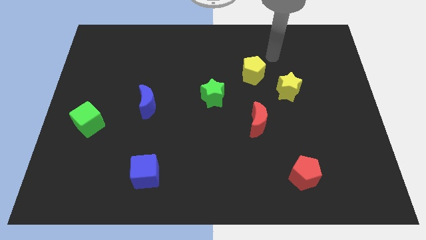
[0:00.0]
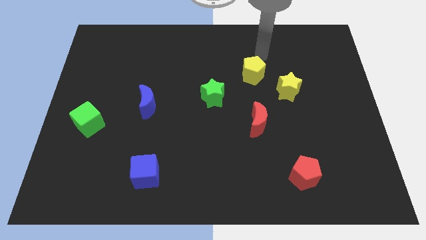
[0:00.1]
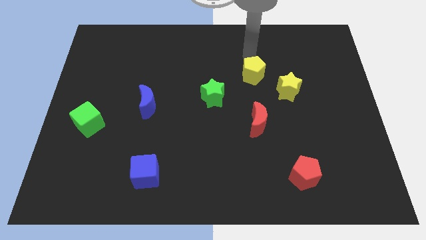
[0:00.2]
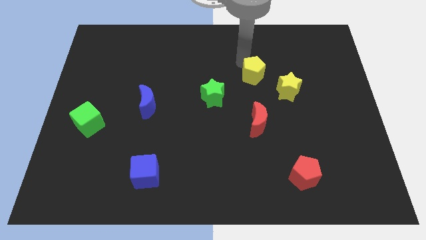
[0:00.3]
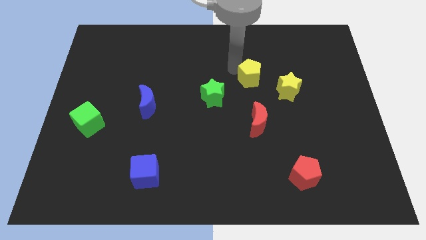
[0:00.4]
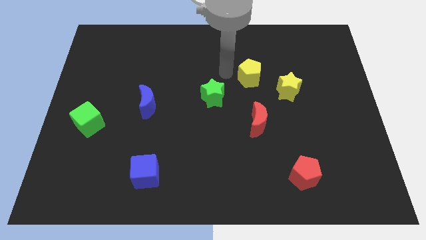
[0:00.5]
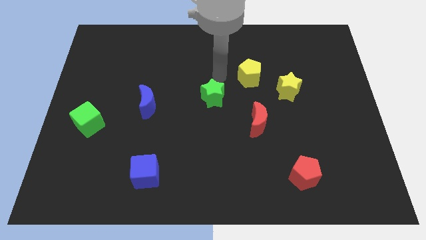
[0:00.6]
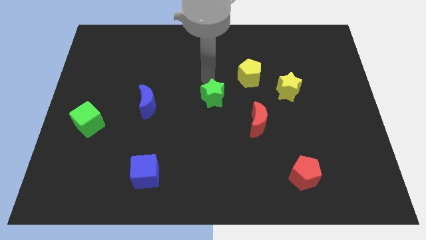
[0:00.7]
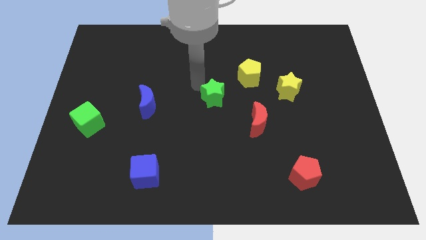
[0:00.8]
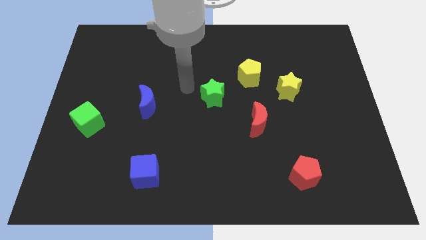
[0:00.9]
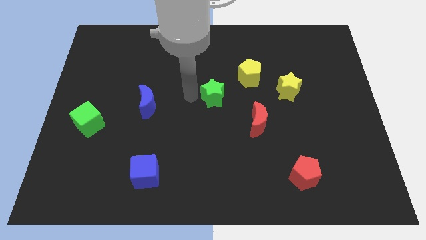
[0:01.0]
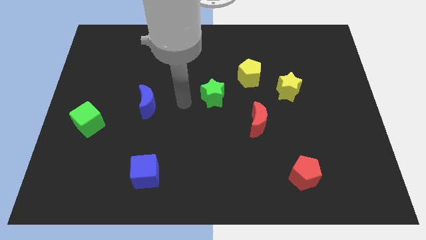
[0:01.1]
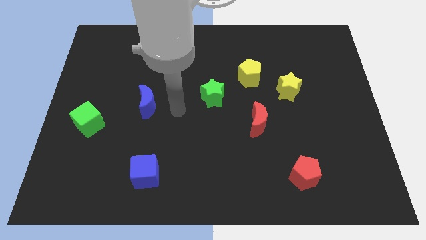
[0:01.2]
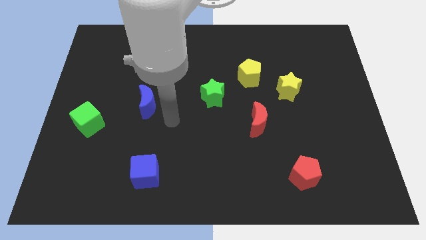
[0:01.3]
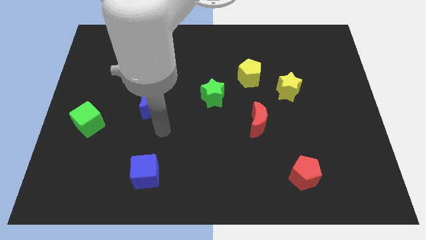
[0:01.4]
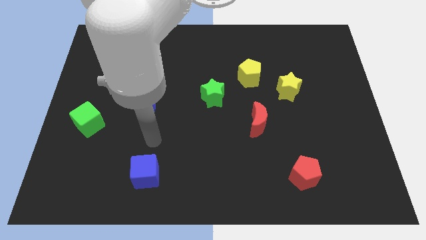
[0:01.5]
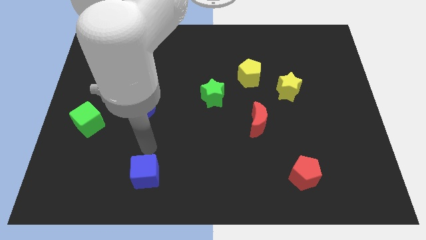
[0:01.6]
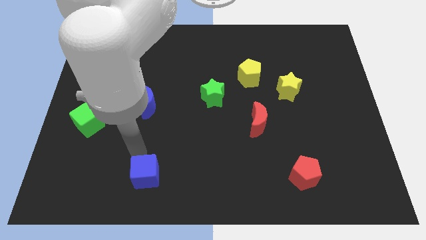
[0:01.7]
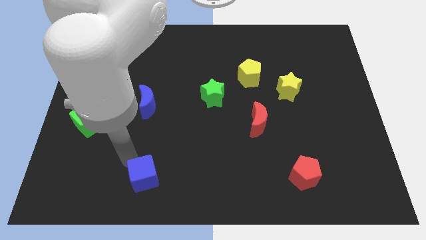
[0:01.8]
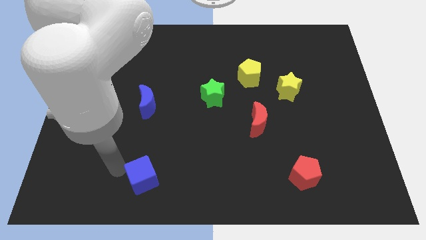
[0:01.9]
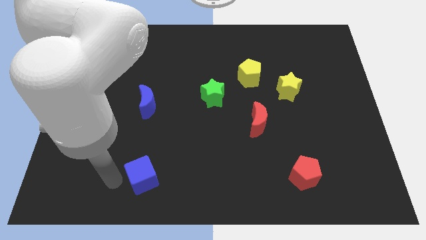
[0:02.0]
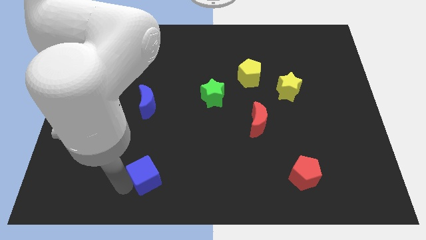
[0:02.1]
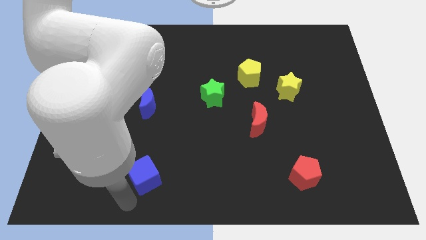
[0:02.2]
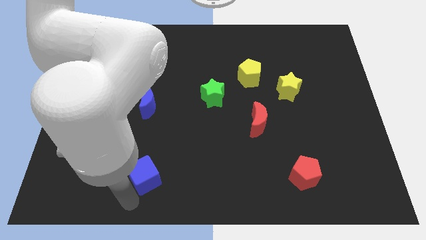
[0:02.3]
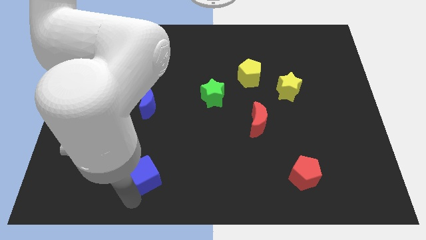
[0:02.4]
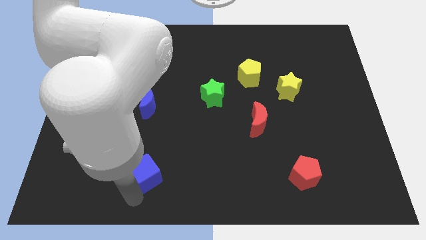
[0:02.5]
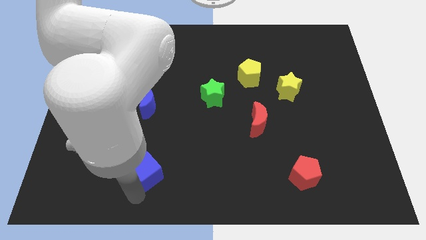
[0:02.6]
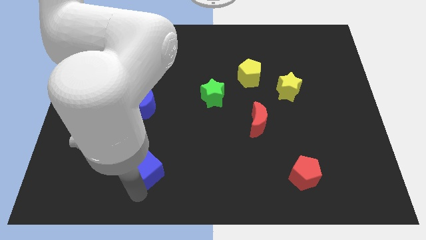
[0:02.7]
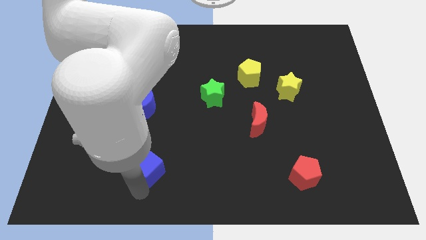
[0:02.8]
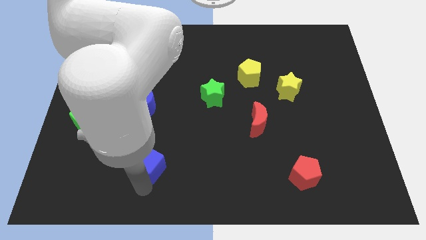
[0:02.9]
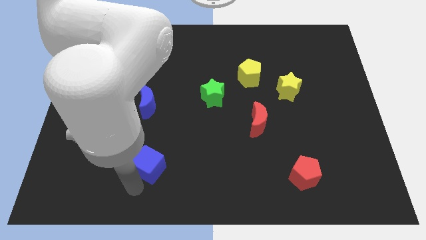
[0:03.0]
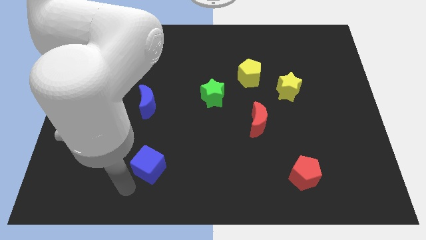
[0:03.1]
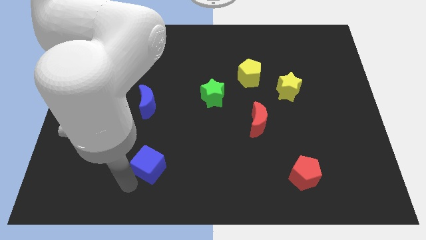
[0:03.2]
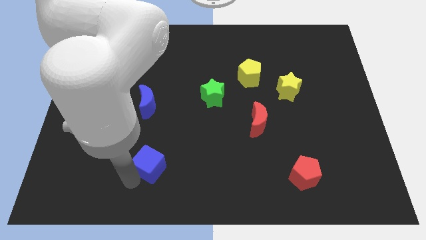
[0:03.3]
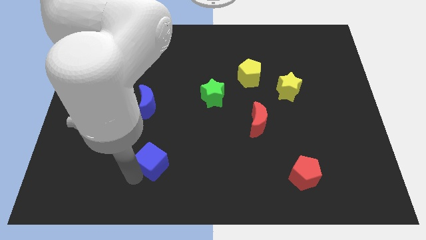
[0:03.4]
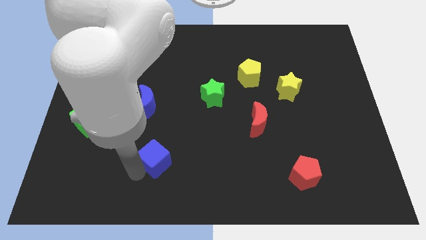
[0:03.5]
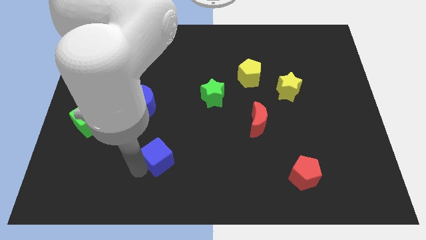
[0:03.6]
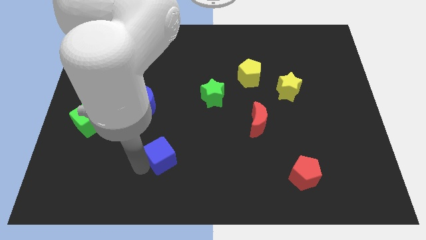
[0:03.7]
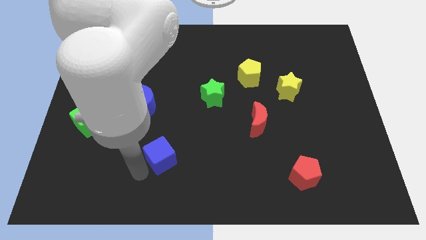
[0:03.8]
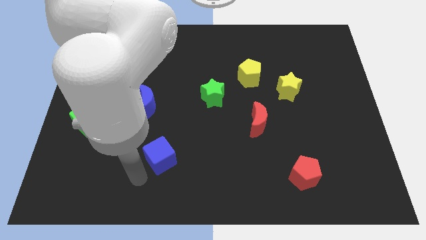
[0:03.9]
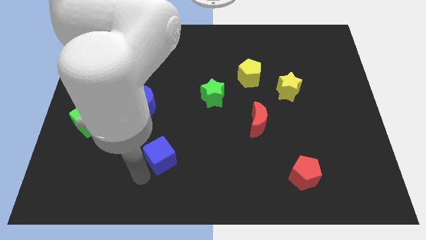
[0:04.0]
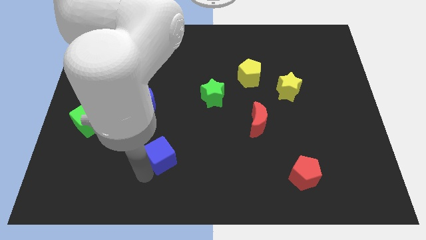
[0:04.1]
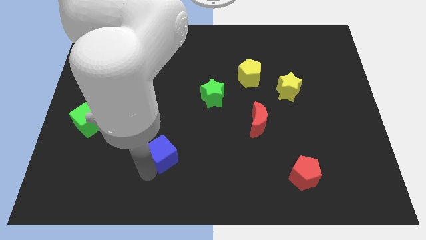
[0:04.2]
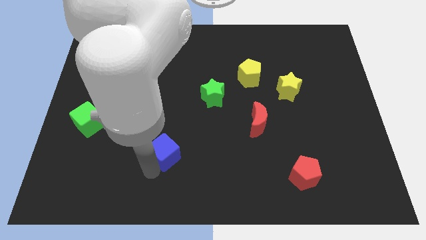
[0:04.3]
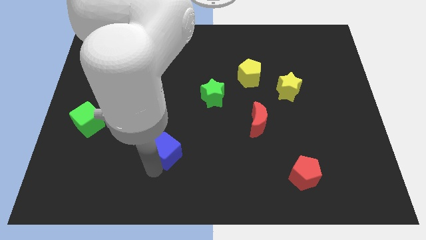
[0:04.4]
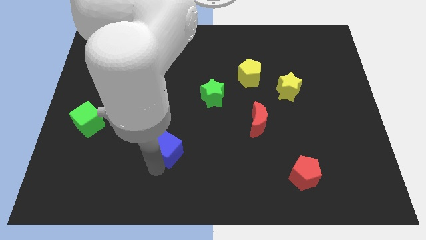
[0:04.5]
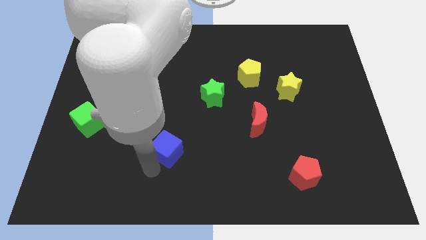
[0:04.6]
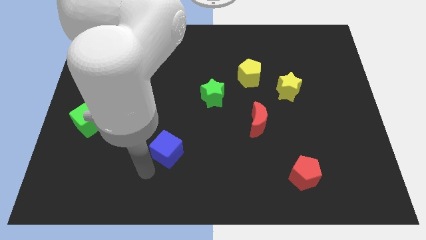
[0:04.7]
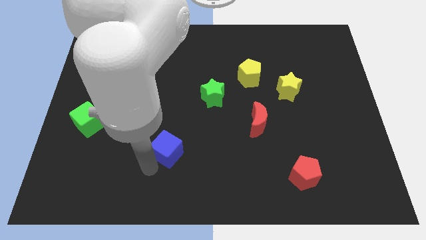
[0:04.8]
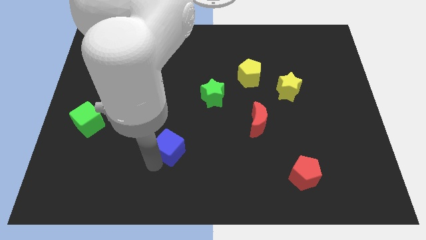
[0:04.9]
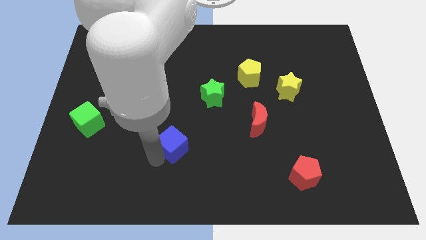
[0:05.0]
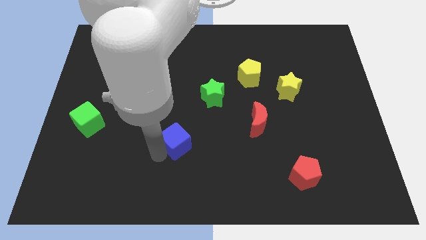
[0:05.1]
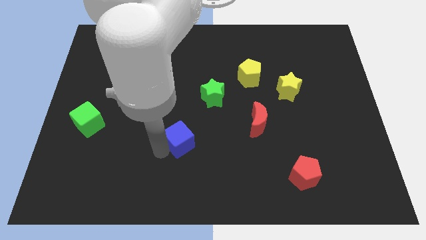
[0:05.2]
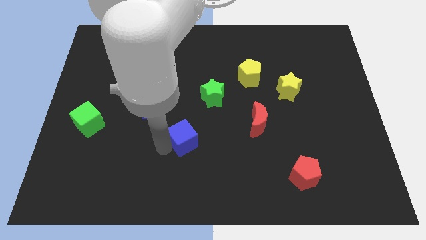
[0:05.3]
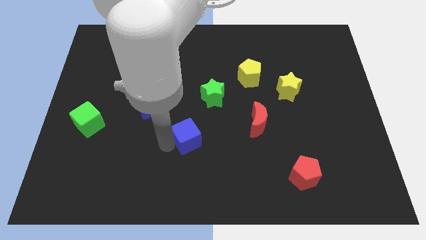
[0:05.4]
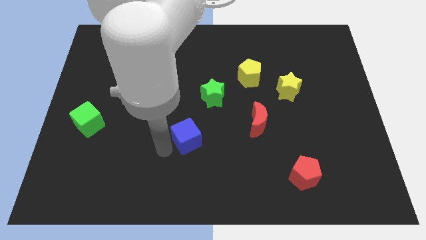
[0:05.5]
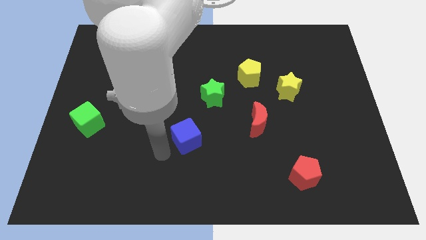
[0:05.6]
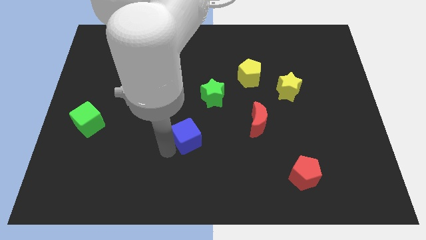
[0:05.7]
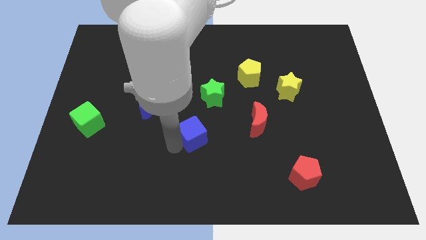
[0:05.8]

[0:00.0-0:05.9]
move the blue cube to the left of the red moon

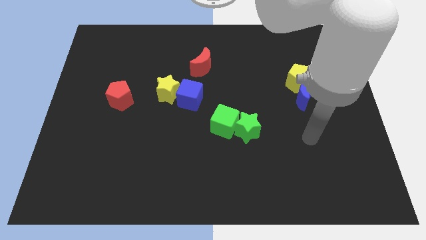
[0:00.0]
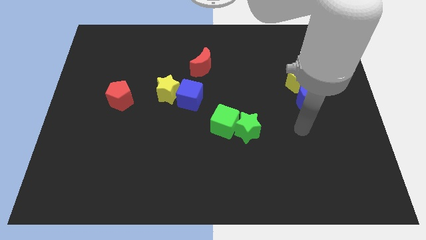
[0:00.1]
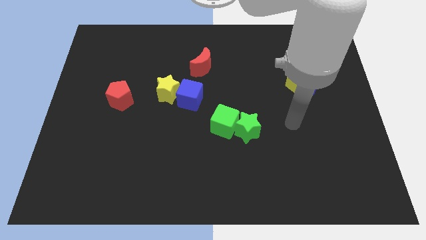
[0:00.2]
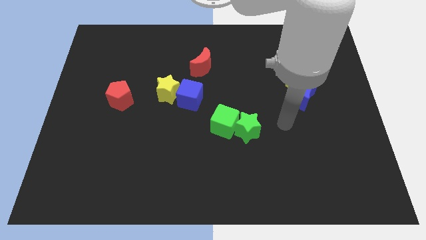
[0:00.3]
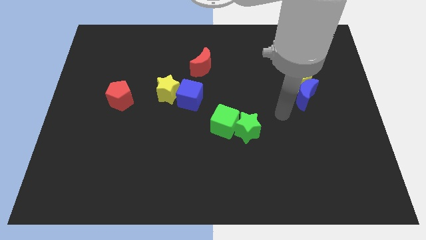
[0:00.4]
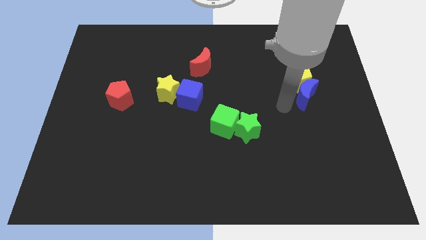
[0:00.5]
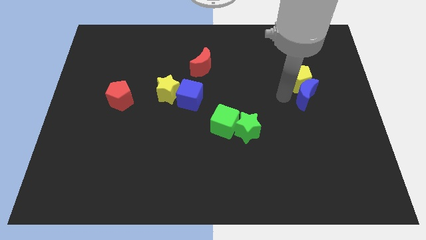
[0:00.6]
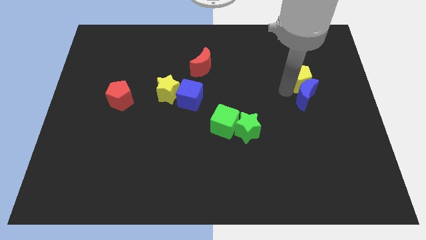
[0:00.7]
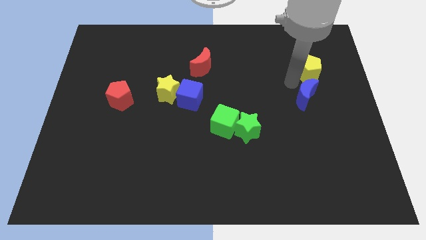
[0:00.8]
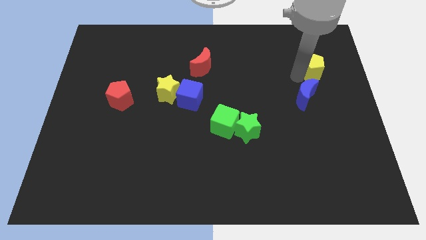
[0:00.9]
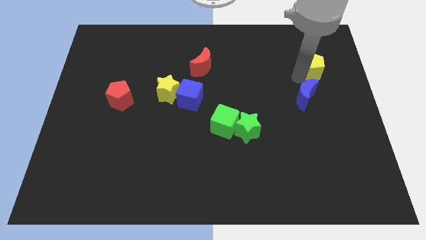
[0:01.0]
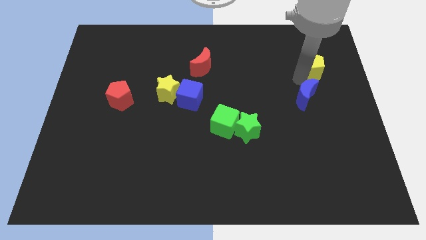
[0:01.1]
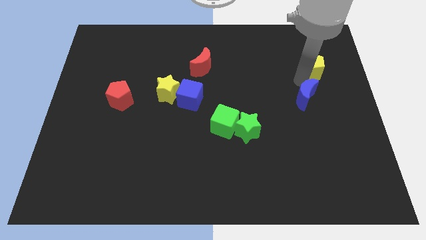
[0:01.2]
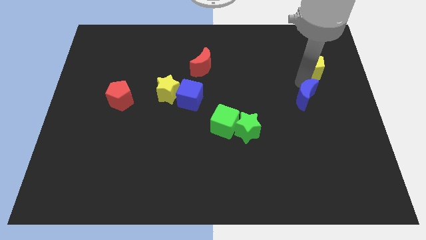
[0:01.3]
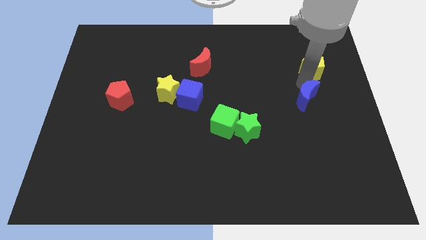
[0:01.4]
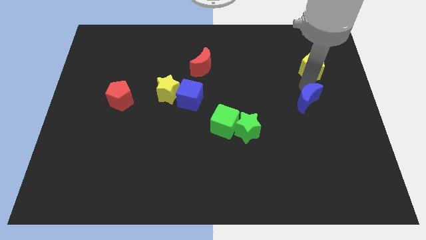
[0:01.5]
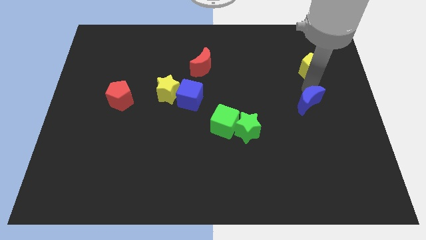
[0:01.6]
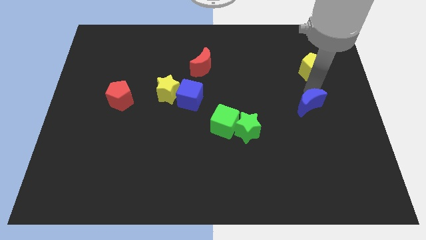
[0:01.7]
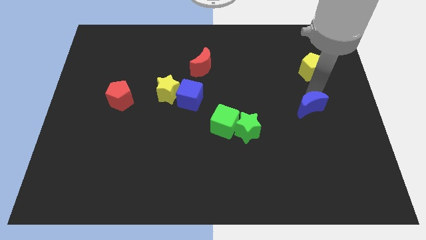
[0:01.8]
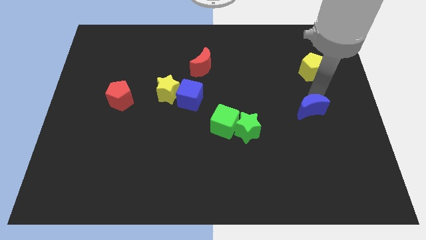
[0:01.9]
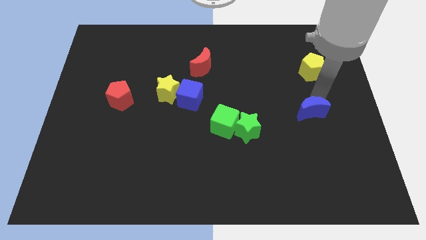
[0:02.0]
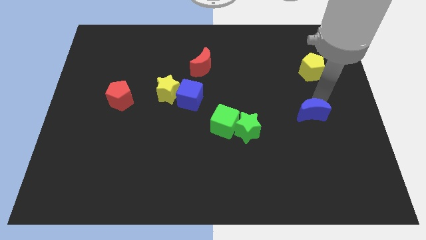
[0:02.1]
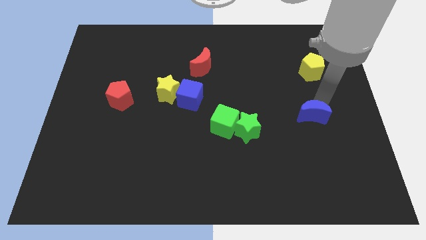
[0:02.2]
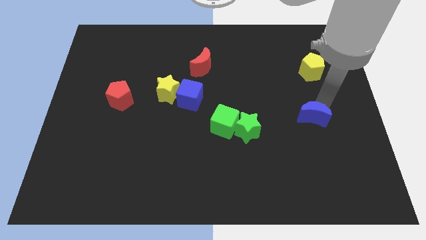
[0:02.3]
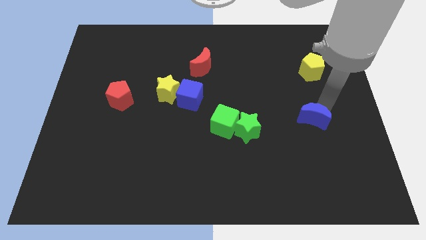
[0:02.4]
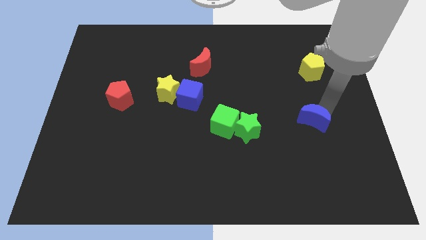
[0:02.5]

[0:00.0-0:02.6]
put the blue moon just right of the green star
